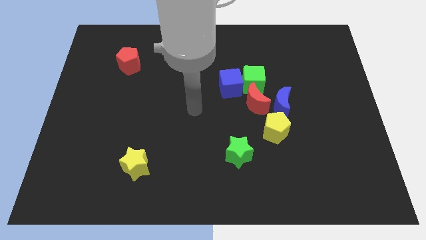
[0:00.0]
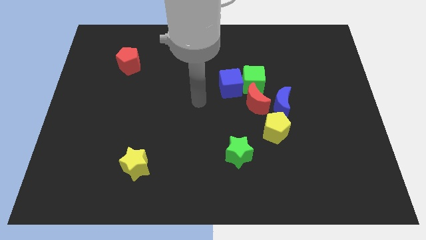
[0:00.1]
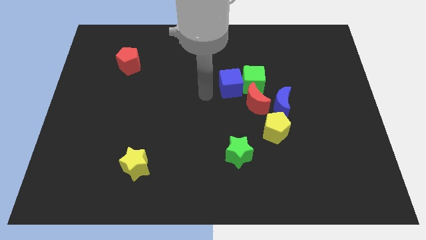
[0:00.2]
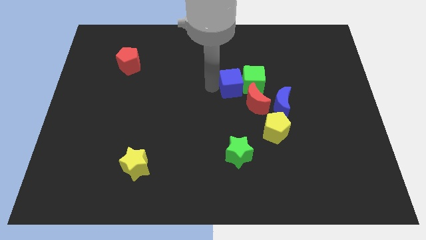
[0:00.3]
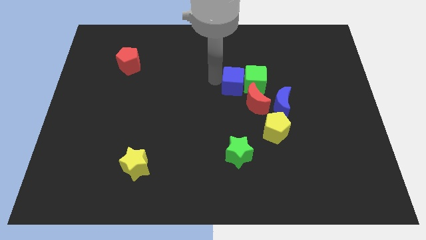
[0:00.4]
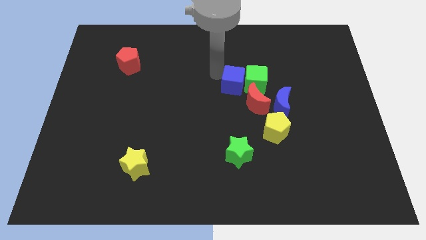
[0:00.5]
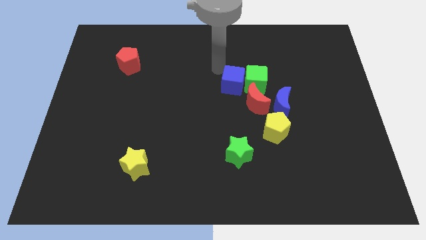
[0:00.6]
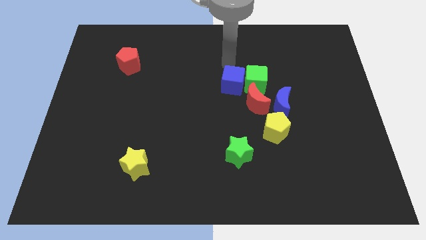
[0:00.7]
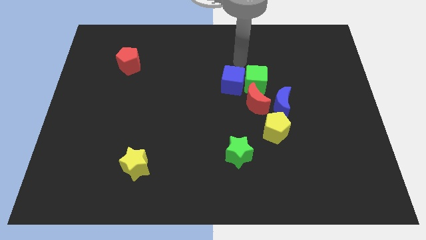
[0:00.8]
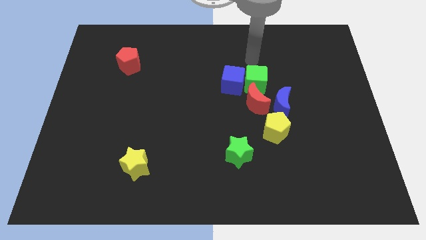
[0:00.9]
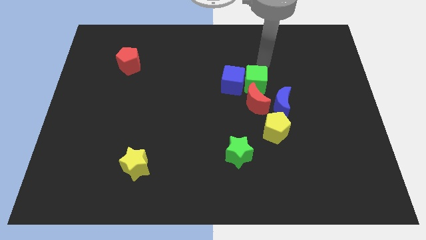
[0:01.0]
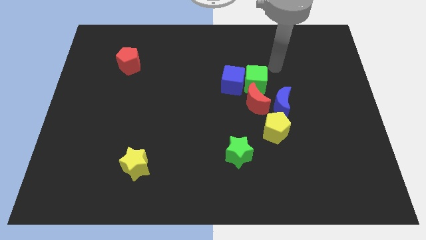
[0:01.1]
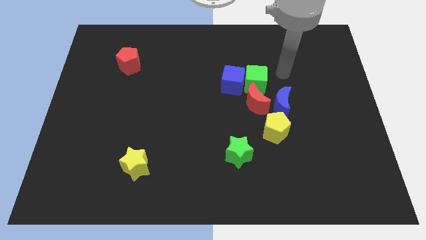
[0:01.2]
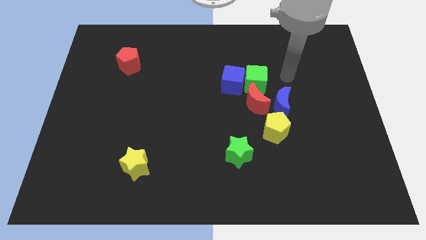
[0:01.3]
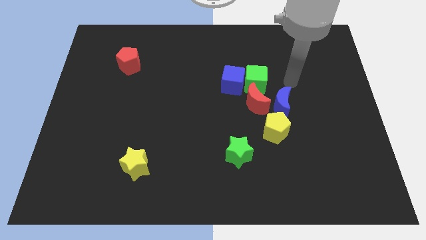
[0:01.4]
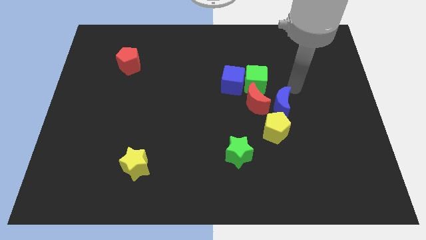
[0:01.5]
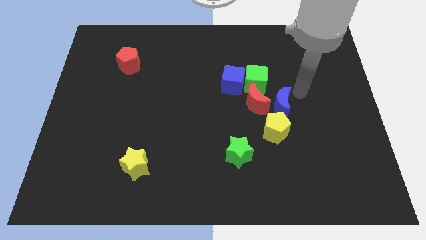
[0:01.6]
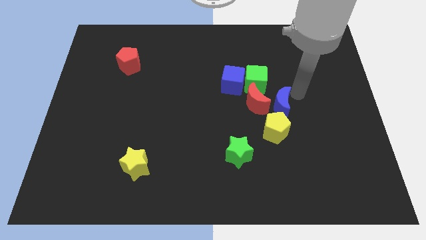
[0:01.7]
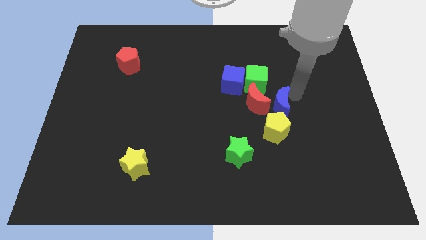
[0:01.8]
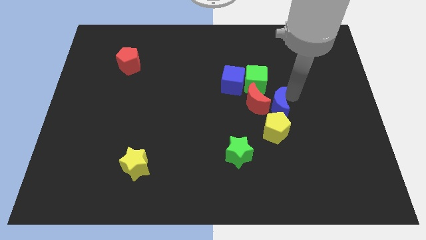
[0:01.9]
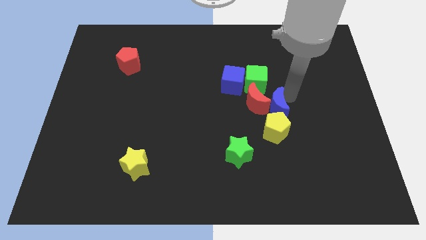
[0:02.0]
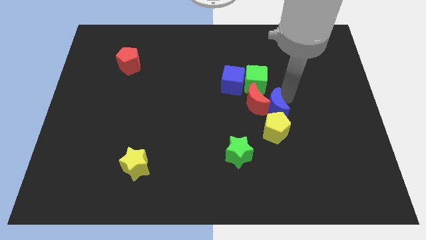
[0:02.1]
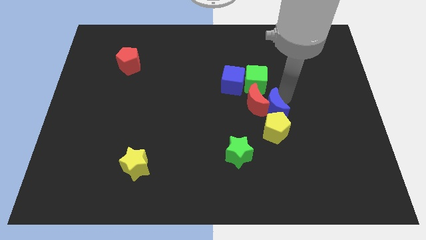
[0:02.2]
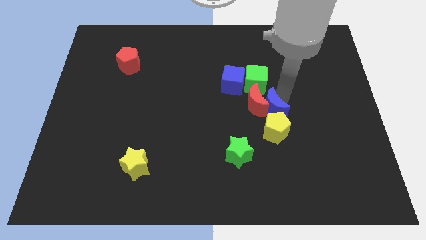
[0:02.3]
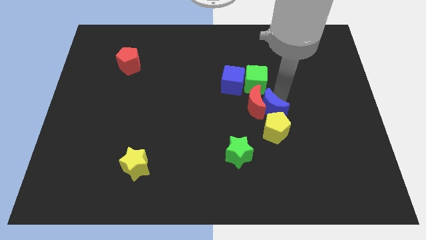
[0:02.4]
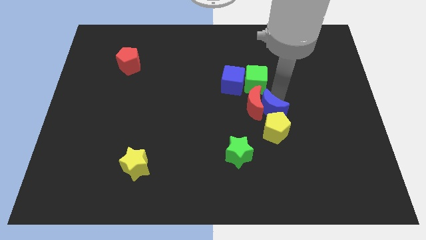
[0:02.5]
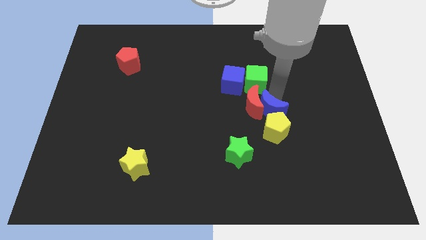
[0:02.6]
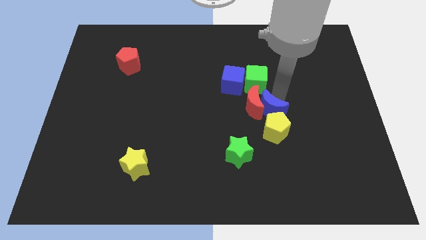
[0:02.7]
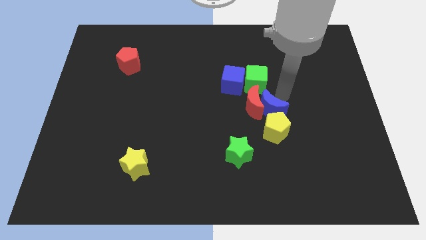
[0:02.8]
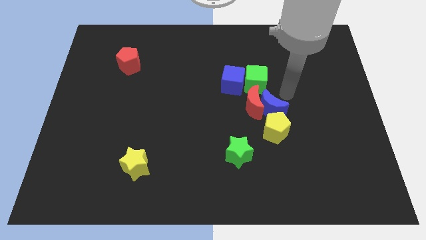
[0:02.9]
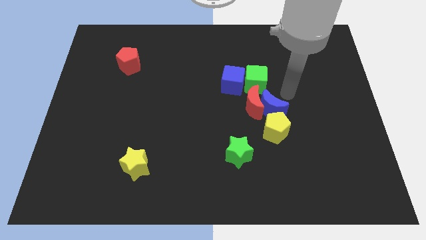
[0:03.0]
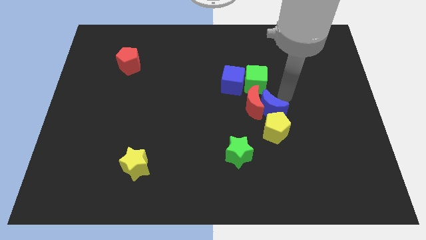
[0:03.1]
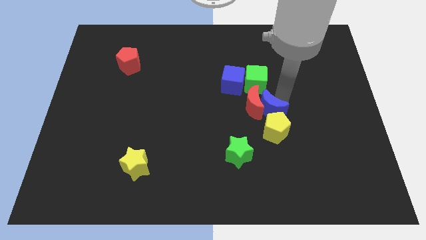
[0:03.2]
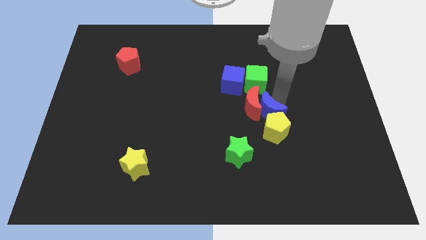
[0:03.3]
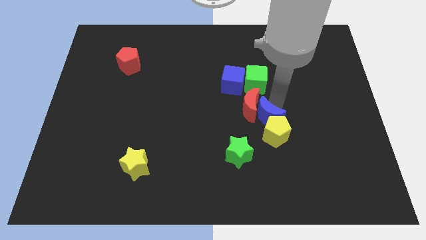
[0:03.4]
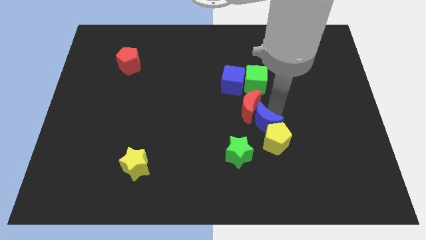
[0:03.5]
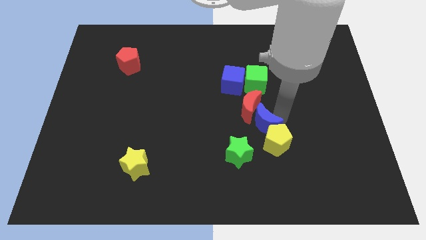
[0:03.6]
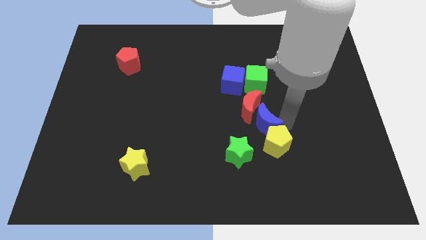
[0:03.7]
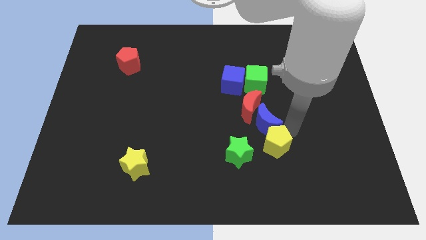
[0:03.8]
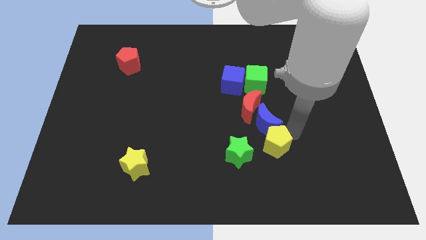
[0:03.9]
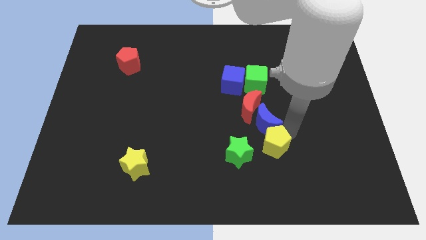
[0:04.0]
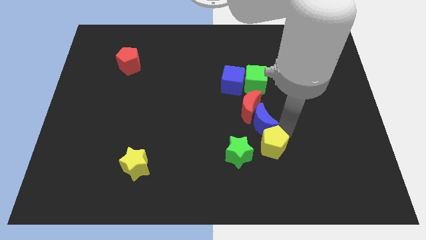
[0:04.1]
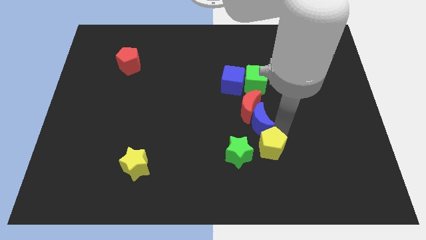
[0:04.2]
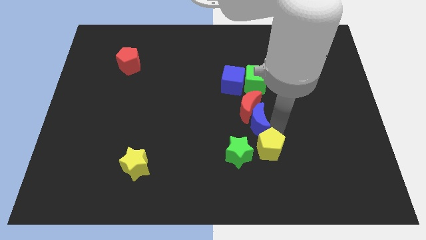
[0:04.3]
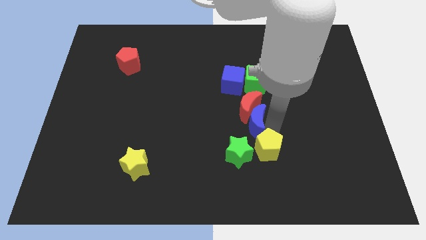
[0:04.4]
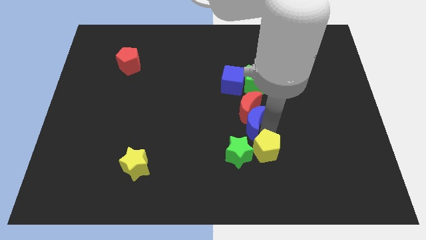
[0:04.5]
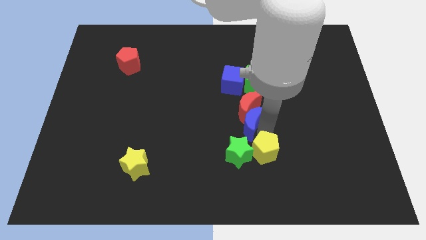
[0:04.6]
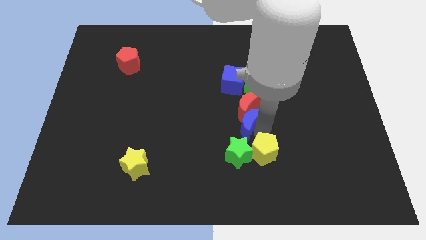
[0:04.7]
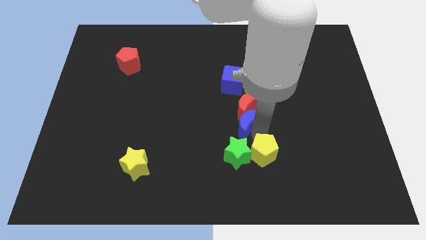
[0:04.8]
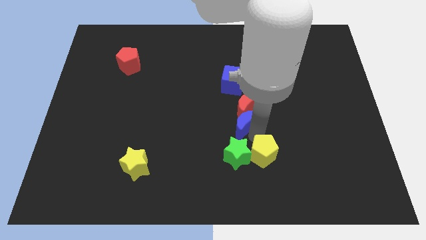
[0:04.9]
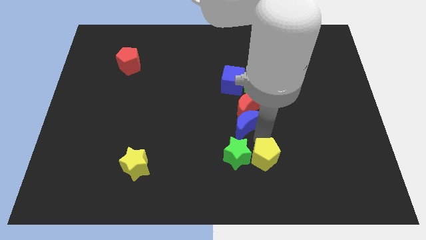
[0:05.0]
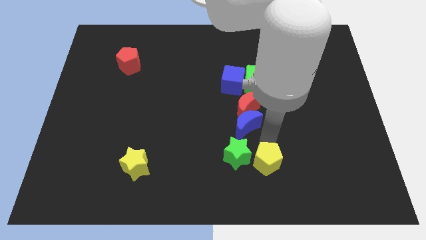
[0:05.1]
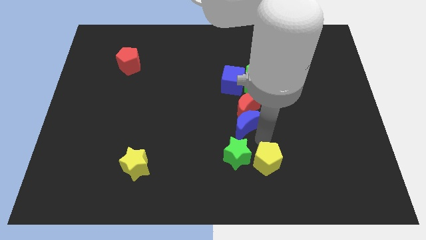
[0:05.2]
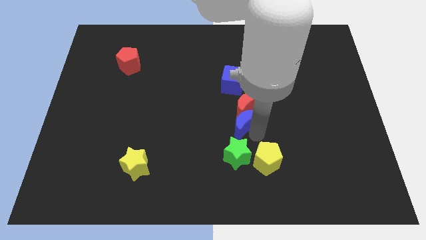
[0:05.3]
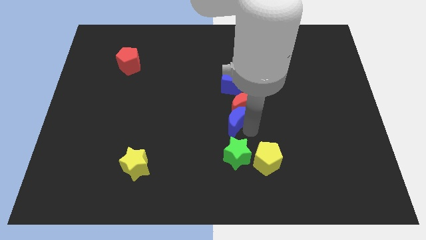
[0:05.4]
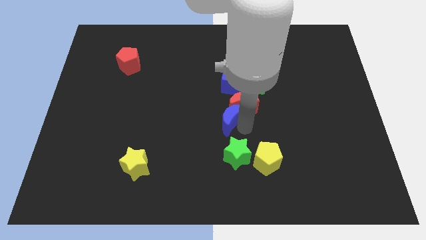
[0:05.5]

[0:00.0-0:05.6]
push the blue moon left of the red moon

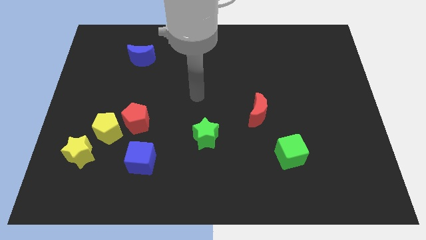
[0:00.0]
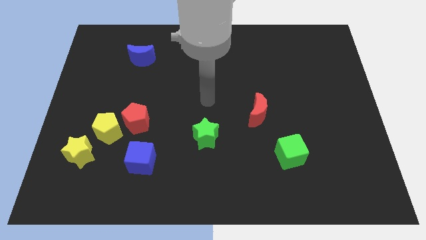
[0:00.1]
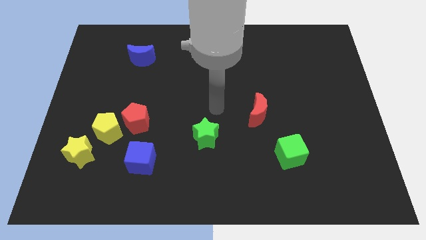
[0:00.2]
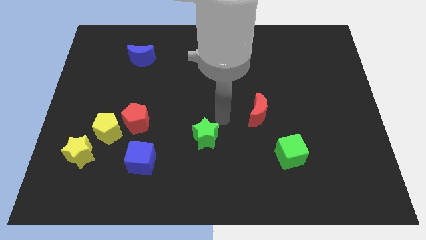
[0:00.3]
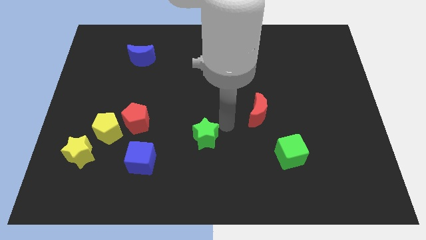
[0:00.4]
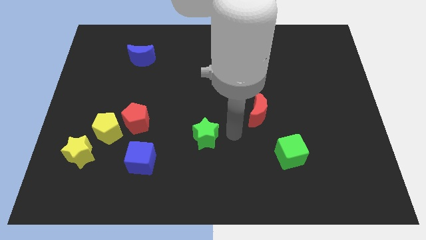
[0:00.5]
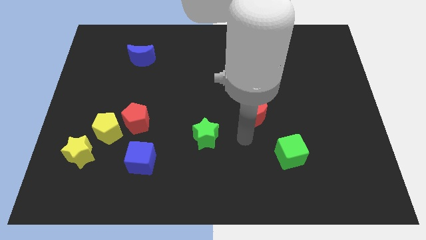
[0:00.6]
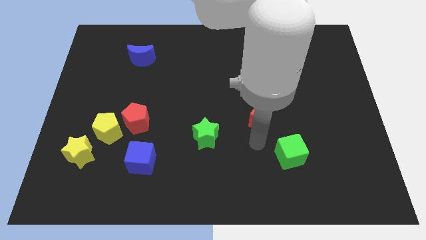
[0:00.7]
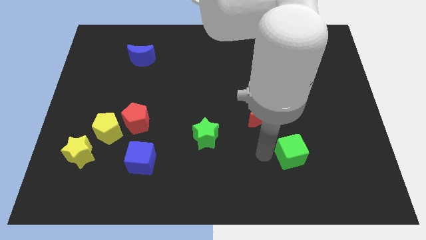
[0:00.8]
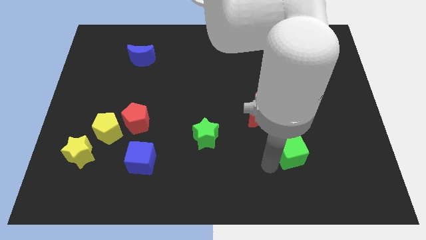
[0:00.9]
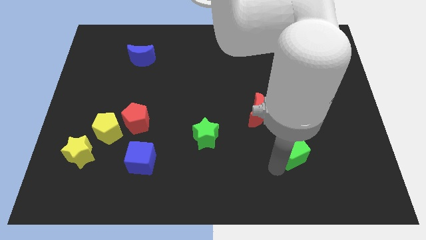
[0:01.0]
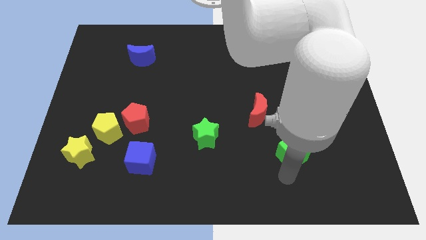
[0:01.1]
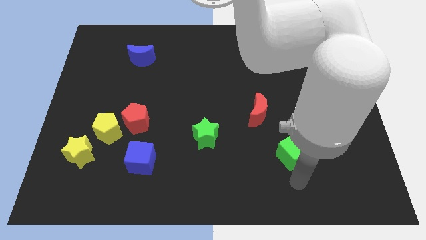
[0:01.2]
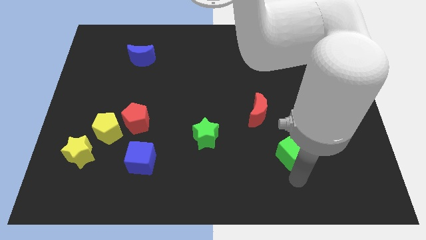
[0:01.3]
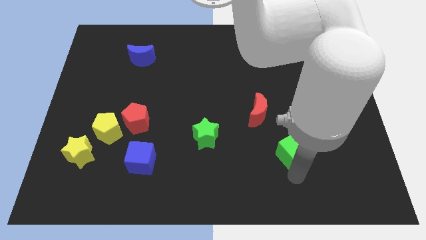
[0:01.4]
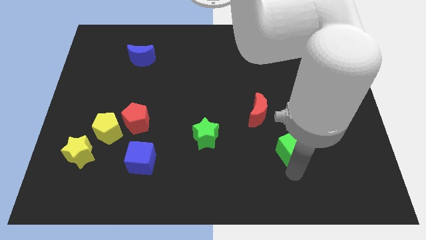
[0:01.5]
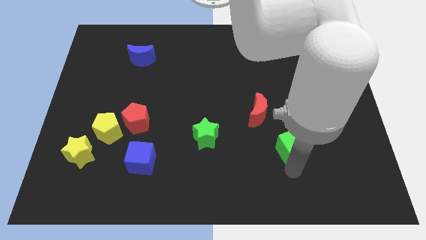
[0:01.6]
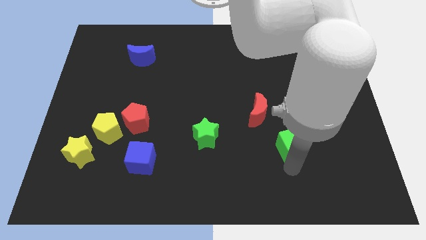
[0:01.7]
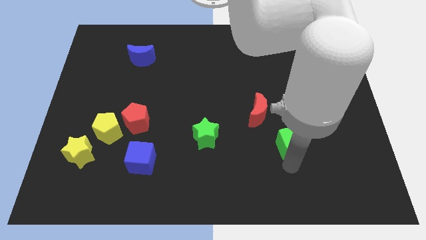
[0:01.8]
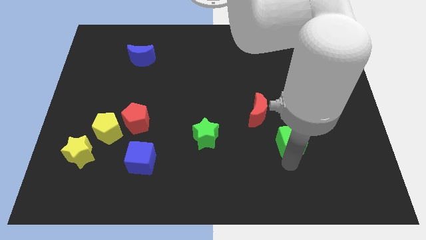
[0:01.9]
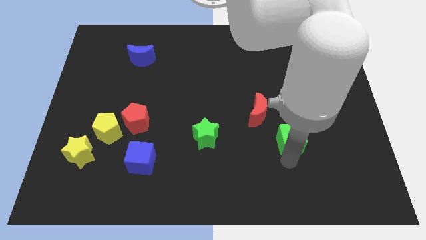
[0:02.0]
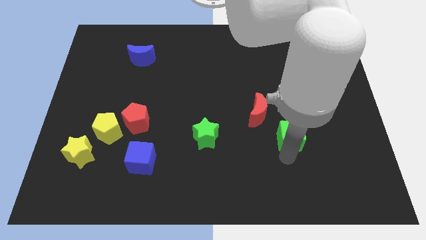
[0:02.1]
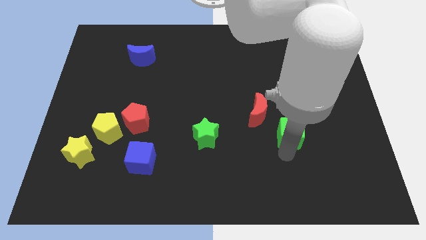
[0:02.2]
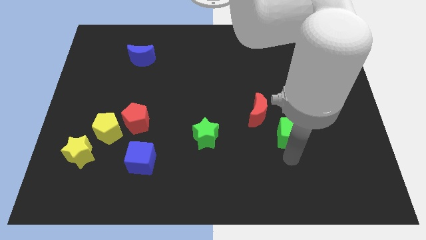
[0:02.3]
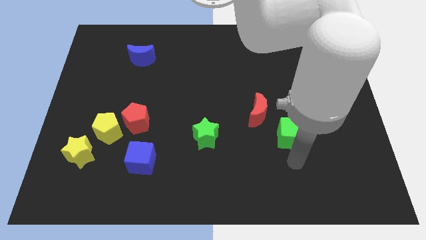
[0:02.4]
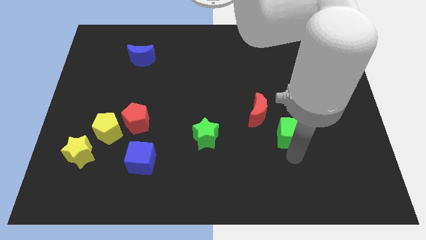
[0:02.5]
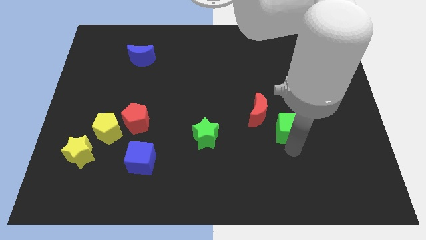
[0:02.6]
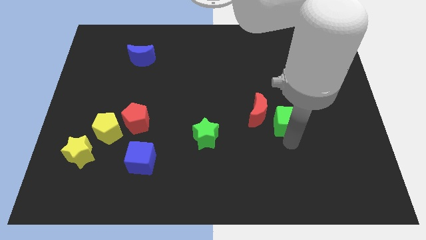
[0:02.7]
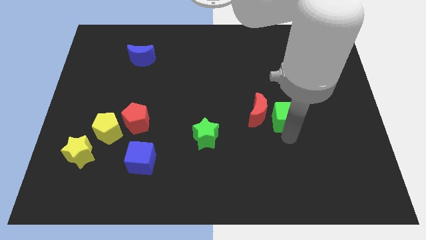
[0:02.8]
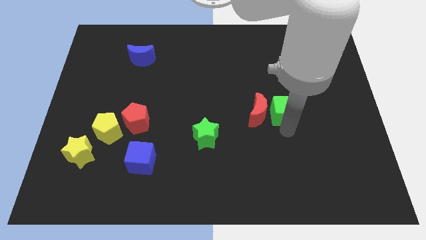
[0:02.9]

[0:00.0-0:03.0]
put the green cube diagonally up and to the right of the red moon
